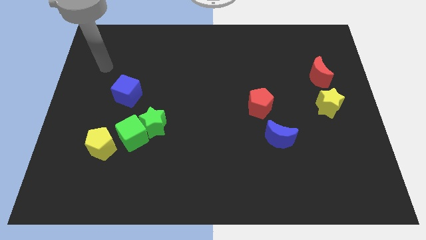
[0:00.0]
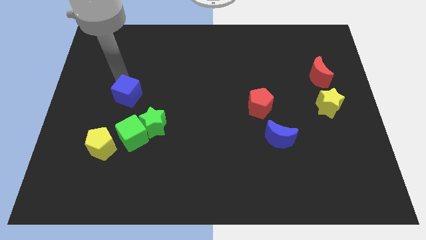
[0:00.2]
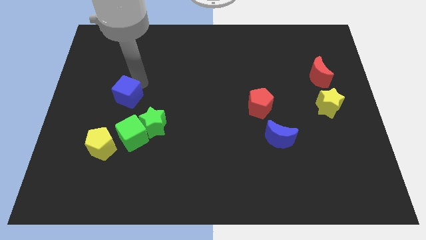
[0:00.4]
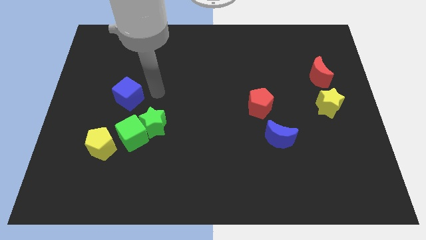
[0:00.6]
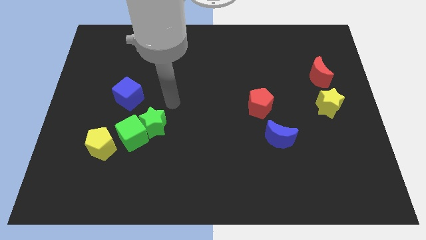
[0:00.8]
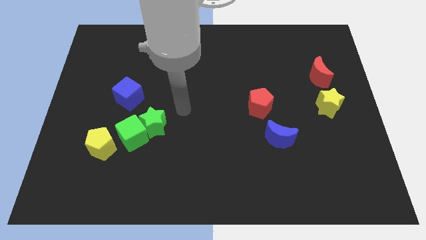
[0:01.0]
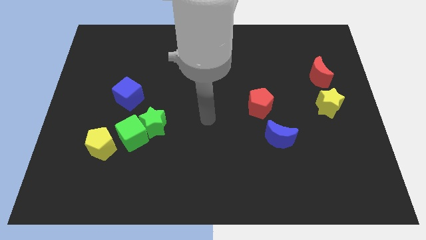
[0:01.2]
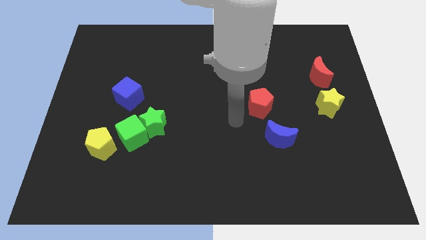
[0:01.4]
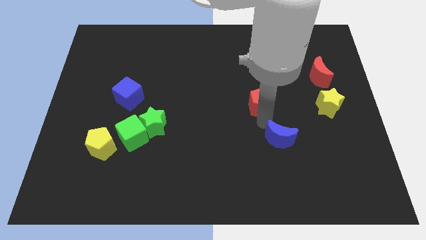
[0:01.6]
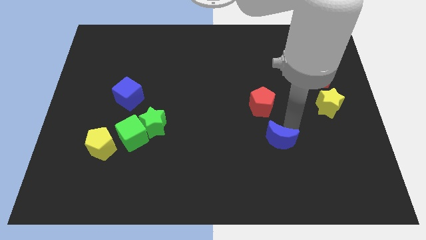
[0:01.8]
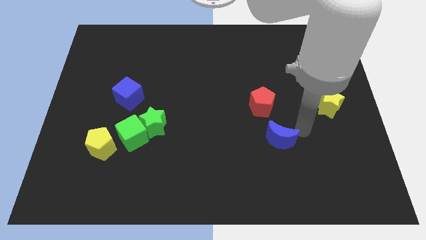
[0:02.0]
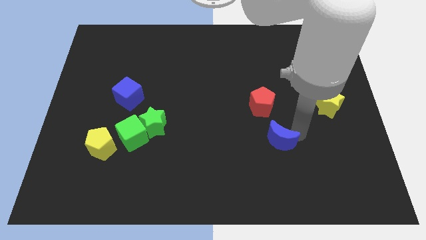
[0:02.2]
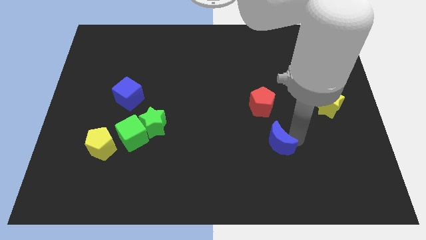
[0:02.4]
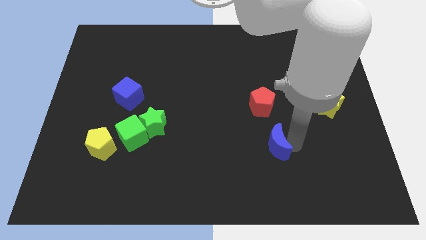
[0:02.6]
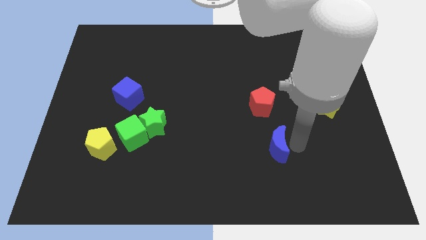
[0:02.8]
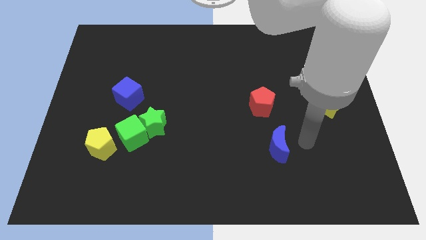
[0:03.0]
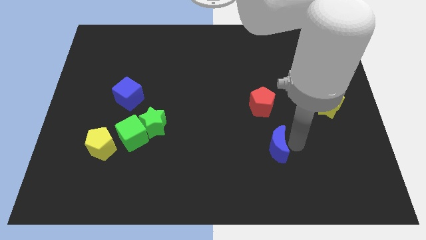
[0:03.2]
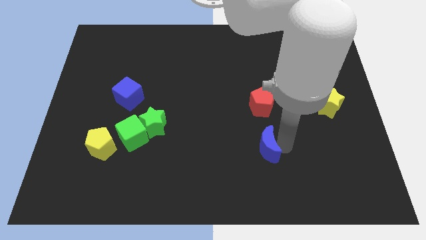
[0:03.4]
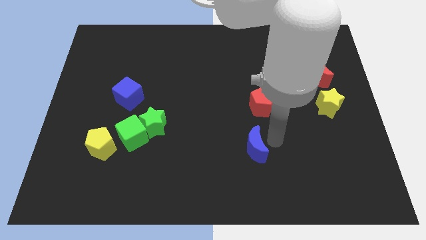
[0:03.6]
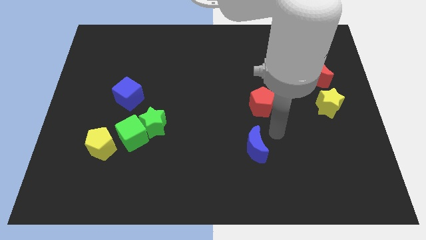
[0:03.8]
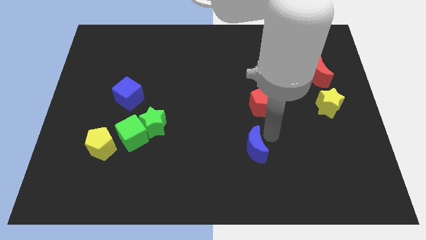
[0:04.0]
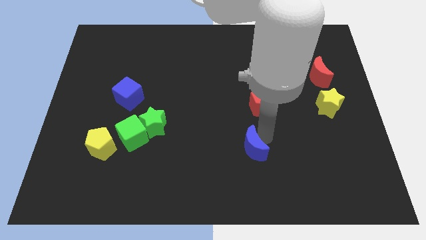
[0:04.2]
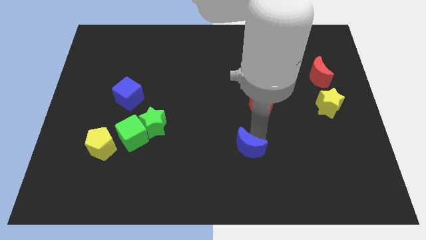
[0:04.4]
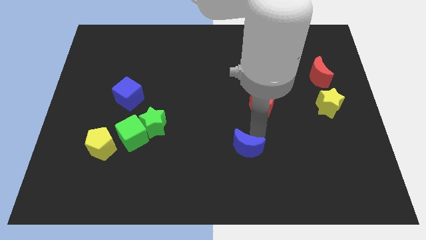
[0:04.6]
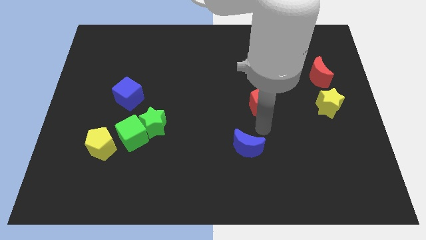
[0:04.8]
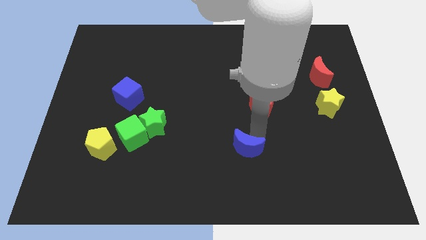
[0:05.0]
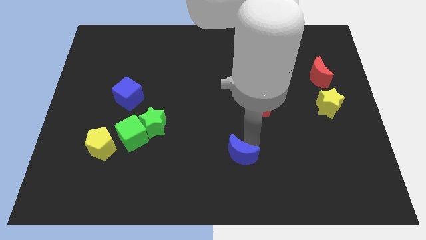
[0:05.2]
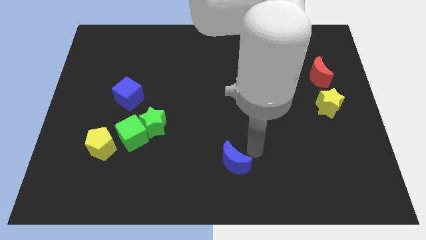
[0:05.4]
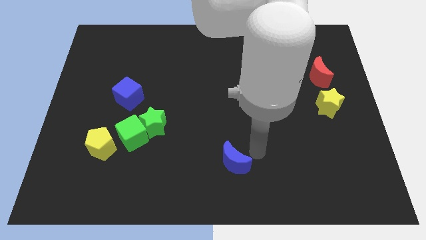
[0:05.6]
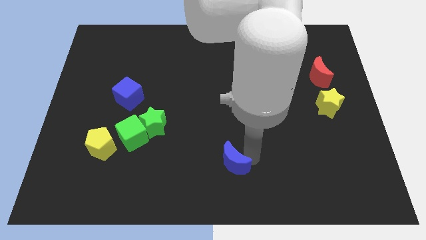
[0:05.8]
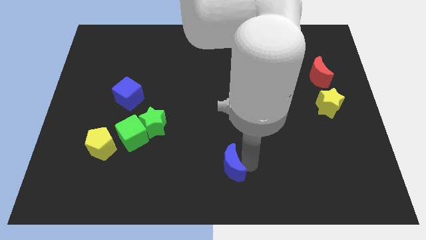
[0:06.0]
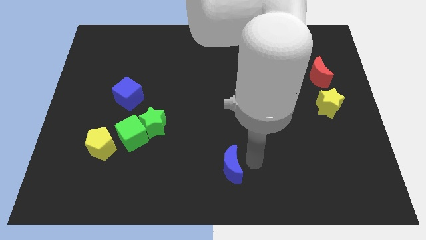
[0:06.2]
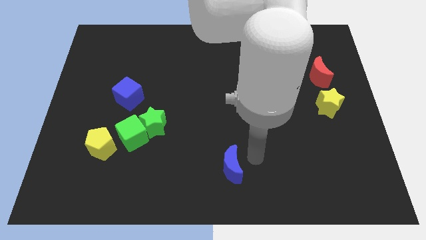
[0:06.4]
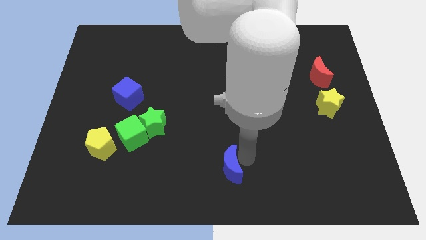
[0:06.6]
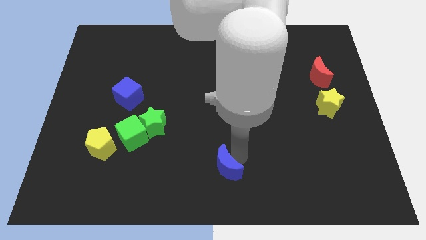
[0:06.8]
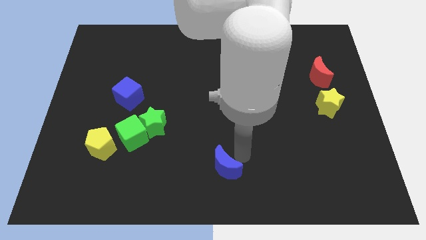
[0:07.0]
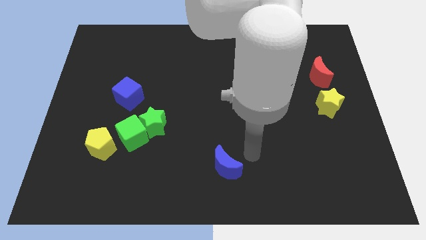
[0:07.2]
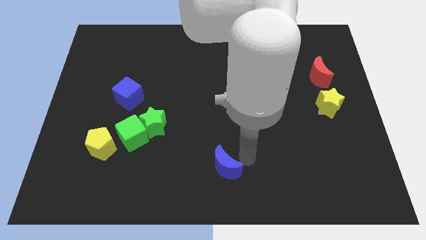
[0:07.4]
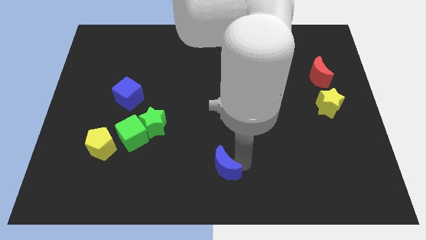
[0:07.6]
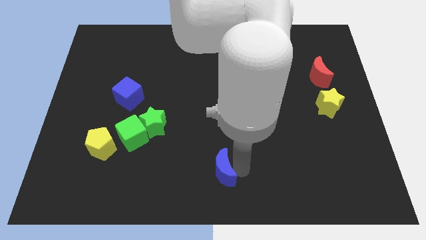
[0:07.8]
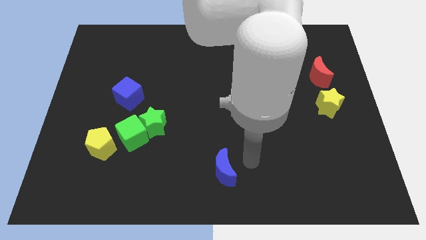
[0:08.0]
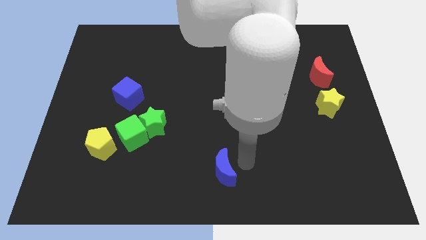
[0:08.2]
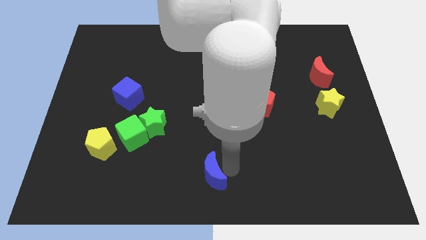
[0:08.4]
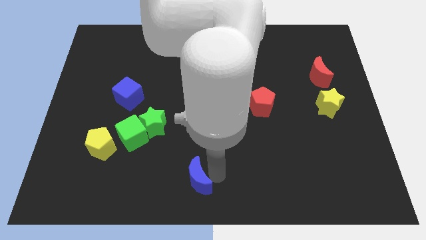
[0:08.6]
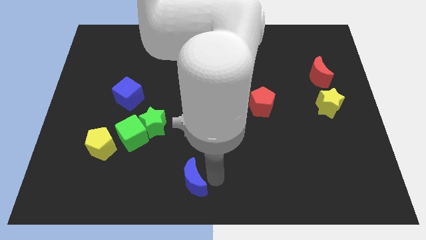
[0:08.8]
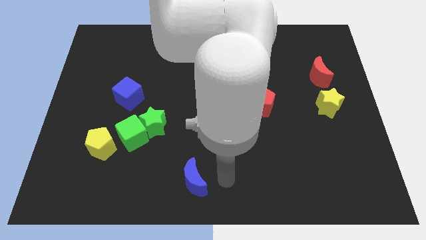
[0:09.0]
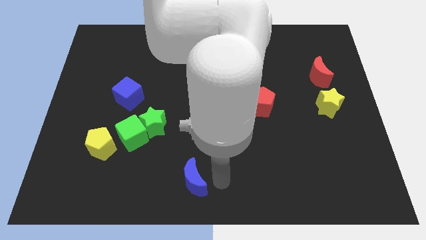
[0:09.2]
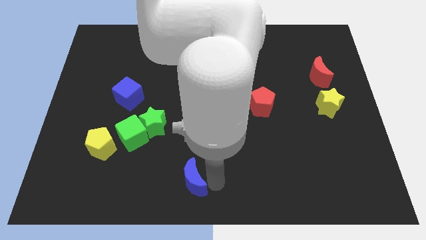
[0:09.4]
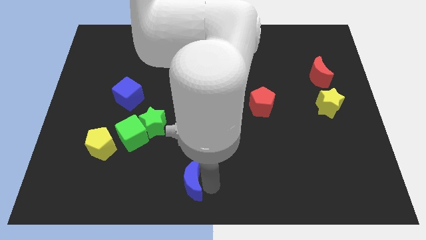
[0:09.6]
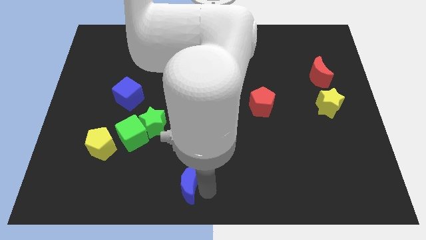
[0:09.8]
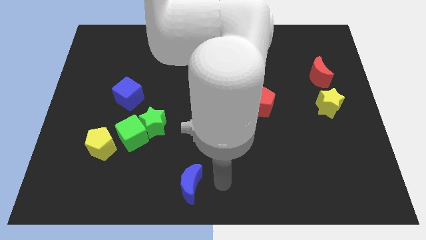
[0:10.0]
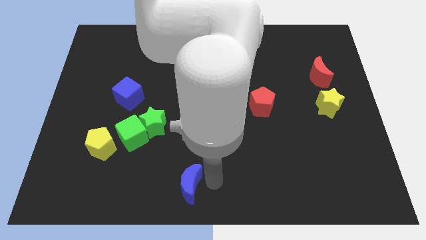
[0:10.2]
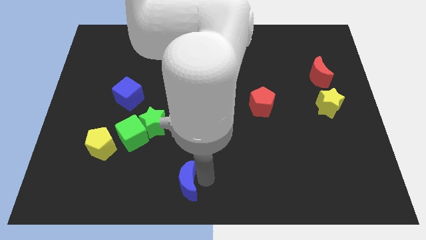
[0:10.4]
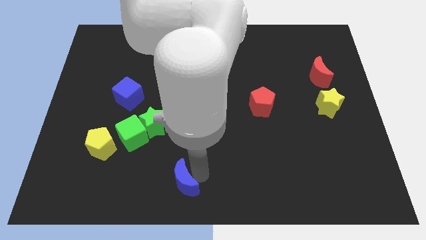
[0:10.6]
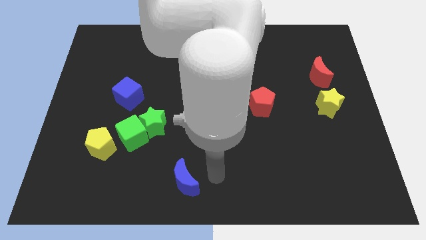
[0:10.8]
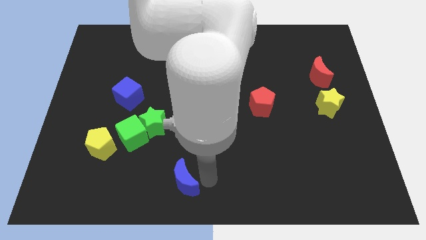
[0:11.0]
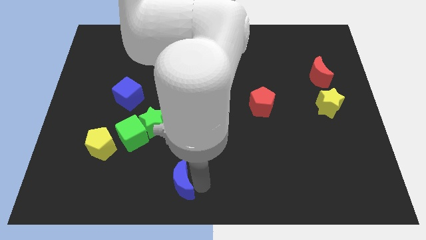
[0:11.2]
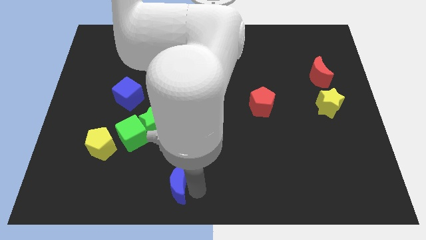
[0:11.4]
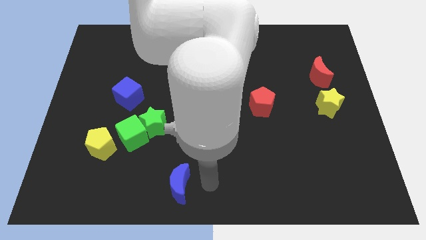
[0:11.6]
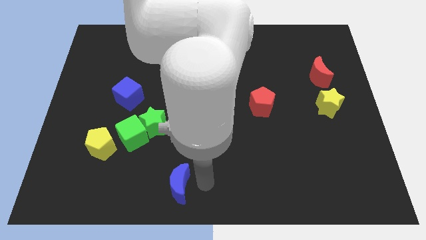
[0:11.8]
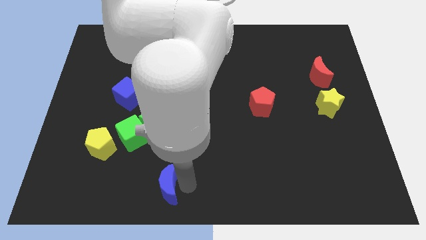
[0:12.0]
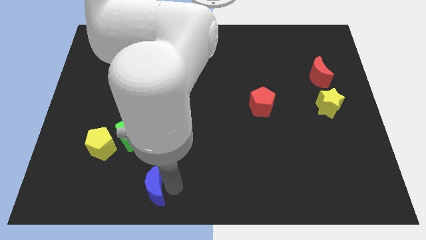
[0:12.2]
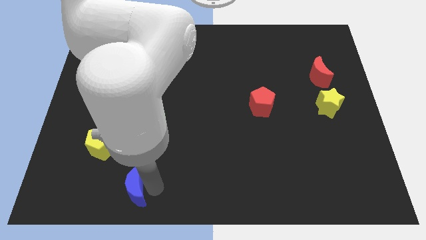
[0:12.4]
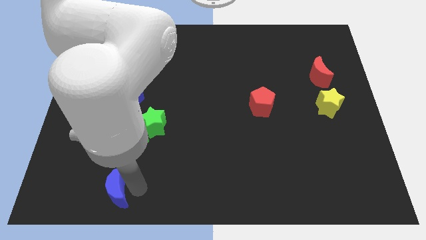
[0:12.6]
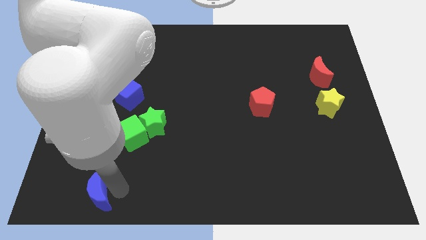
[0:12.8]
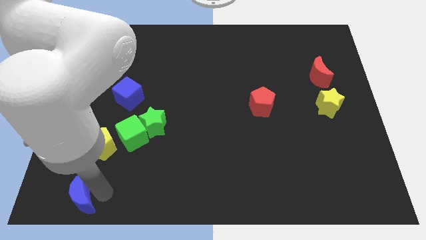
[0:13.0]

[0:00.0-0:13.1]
push the blue moon to the bottom left of the board

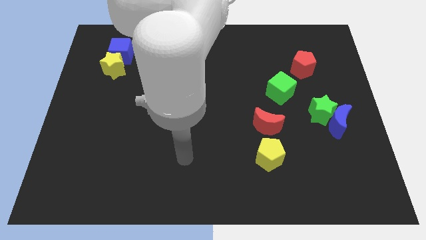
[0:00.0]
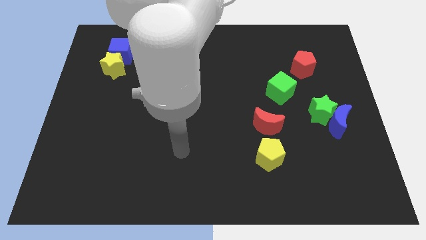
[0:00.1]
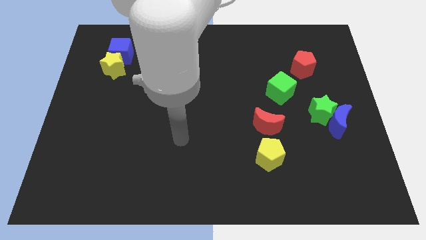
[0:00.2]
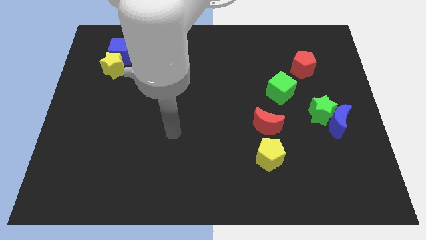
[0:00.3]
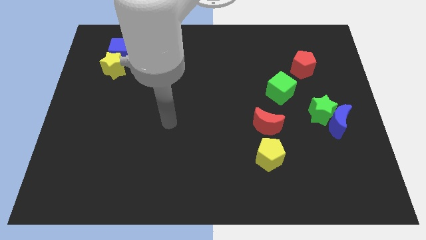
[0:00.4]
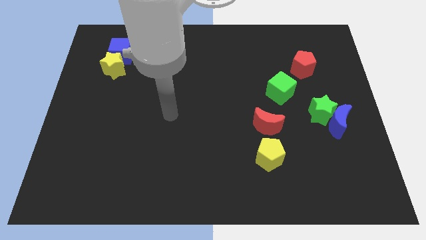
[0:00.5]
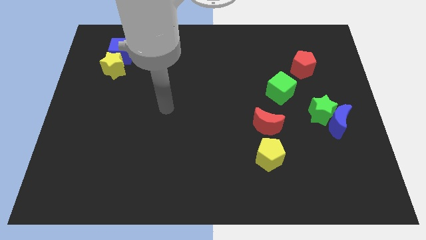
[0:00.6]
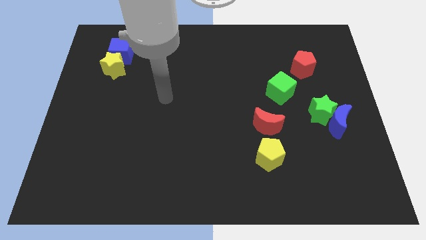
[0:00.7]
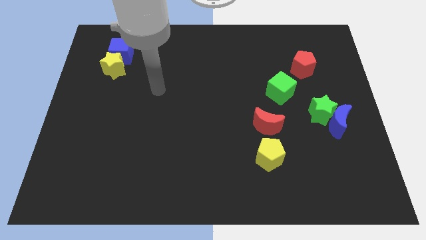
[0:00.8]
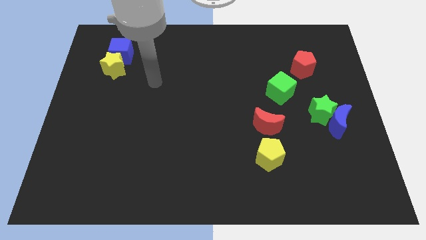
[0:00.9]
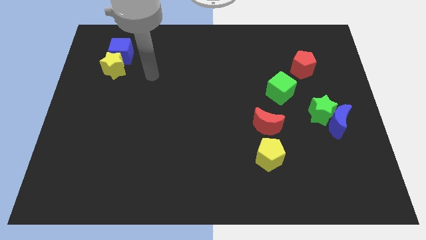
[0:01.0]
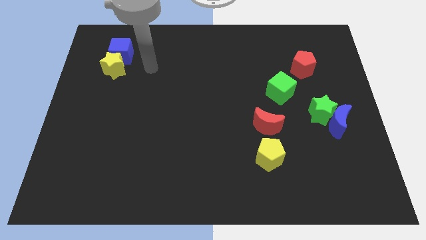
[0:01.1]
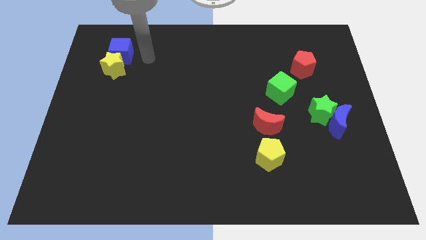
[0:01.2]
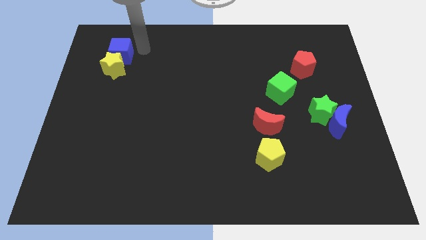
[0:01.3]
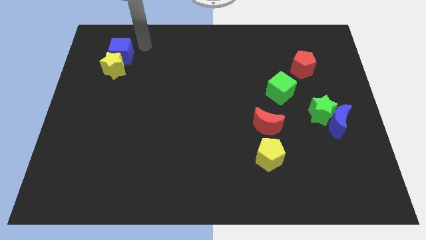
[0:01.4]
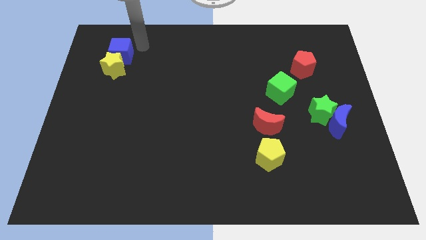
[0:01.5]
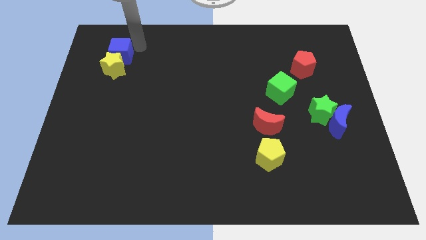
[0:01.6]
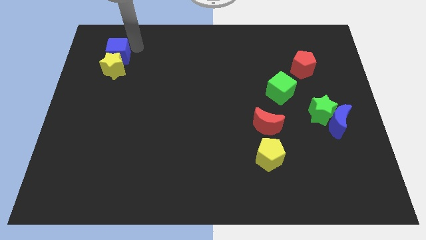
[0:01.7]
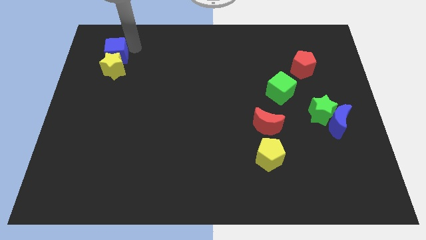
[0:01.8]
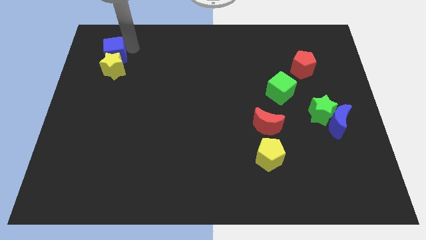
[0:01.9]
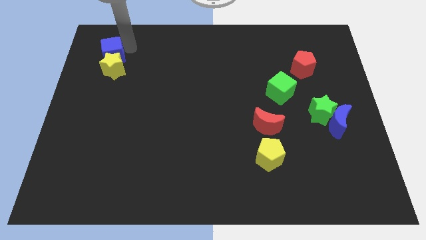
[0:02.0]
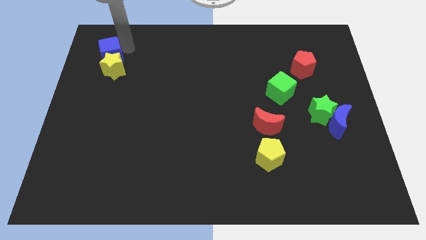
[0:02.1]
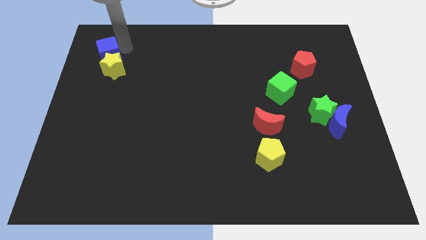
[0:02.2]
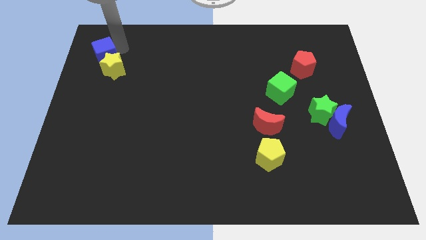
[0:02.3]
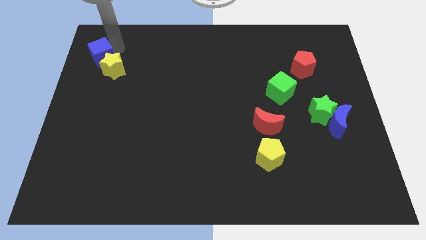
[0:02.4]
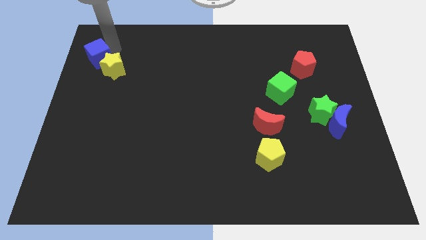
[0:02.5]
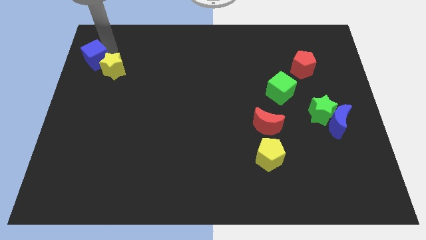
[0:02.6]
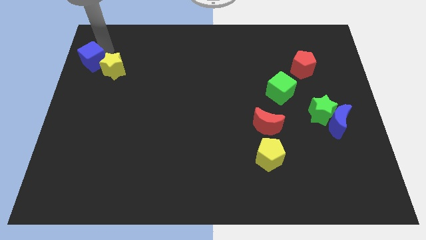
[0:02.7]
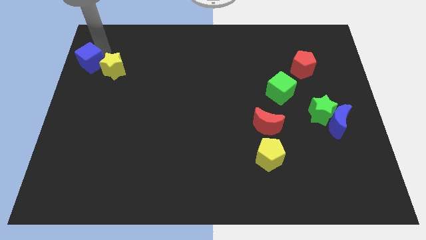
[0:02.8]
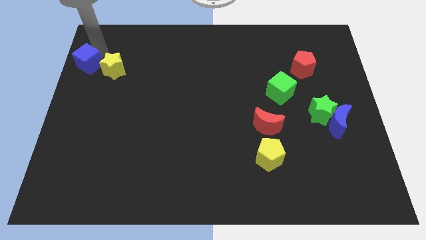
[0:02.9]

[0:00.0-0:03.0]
slide the blue cube to the left side of the board
